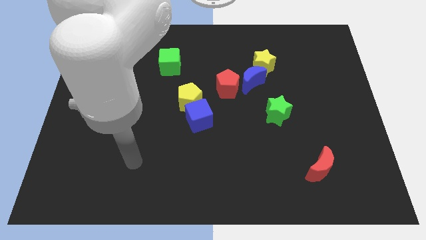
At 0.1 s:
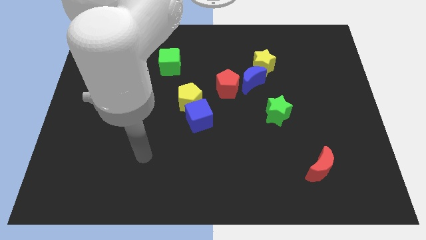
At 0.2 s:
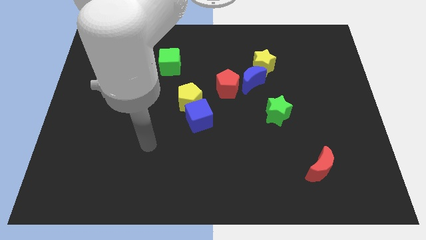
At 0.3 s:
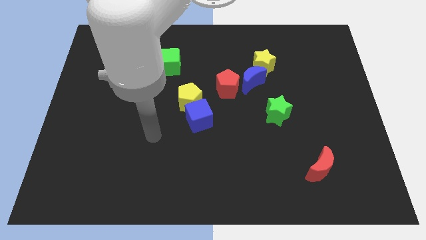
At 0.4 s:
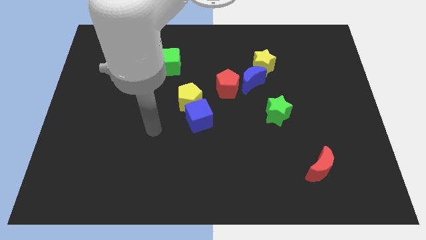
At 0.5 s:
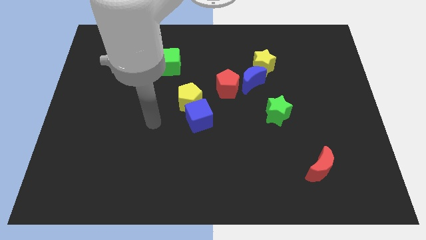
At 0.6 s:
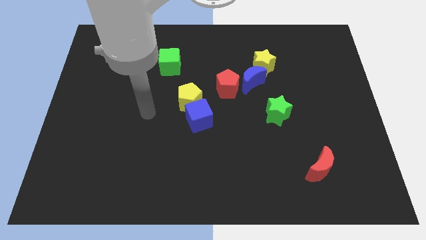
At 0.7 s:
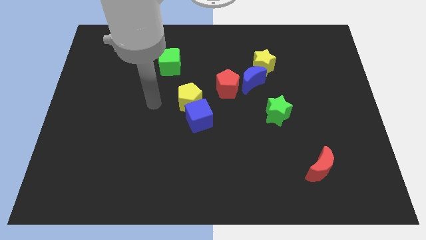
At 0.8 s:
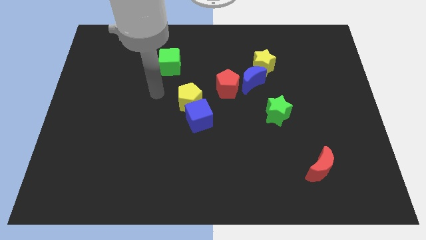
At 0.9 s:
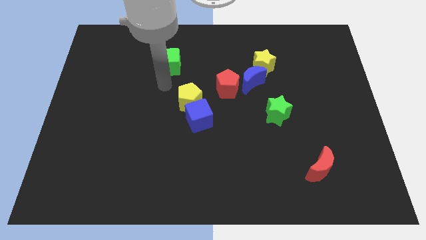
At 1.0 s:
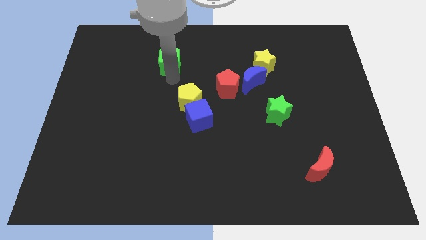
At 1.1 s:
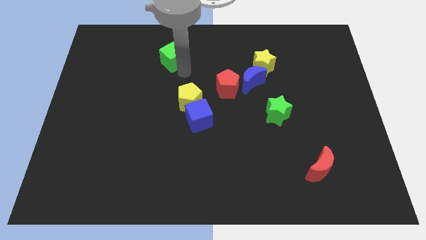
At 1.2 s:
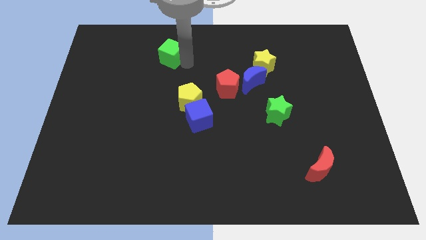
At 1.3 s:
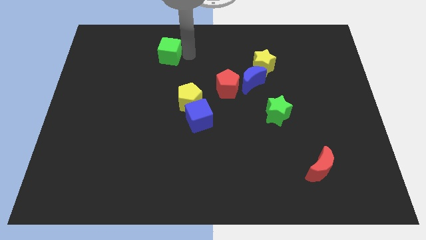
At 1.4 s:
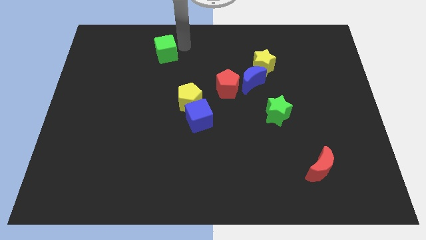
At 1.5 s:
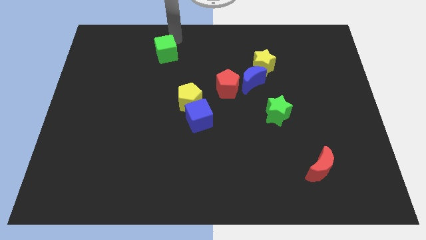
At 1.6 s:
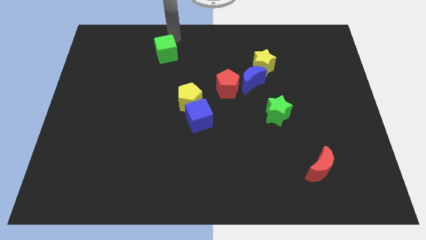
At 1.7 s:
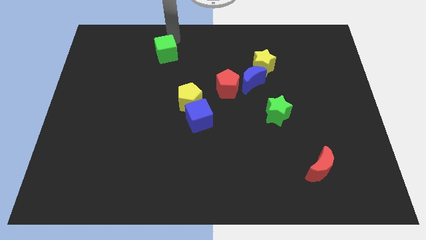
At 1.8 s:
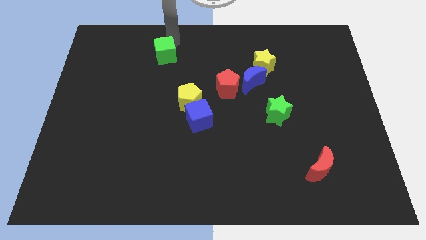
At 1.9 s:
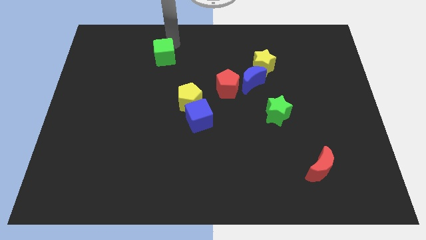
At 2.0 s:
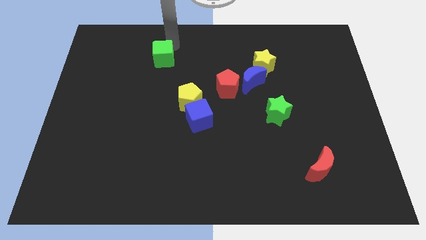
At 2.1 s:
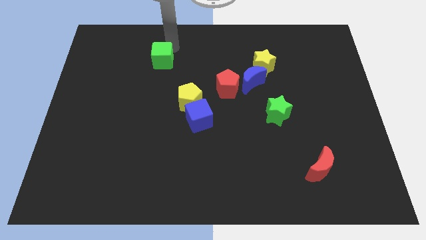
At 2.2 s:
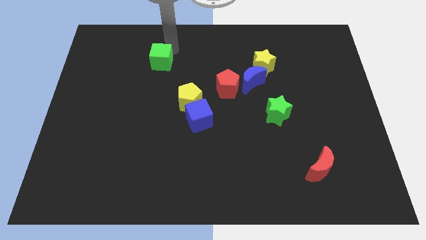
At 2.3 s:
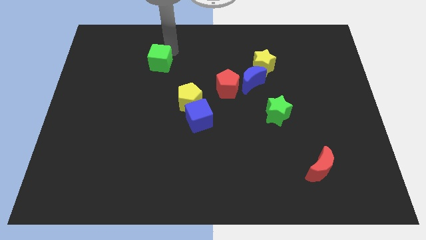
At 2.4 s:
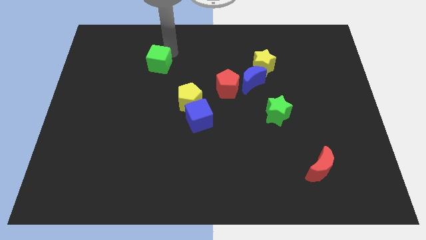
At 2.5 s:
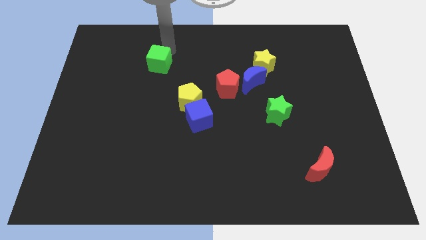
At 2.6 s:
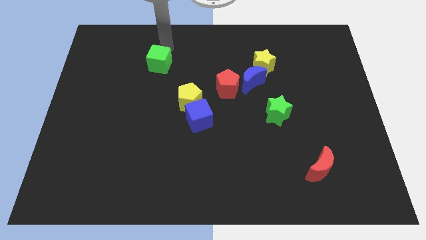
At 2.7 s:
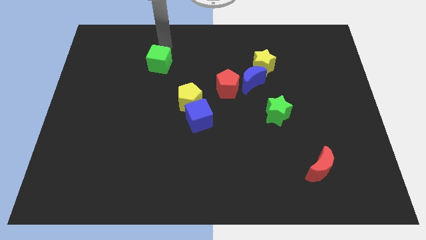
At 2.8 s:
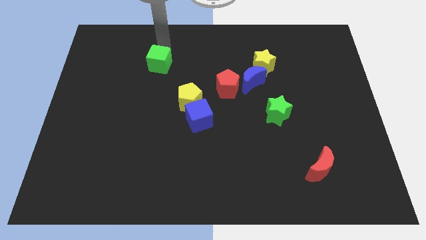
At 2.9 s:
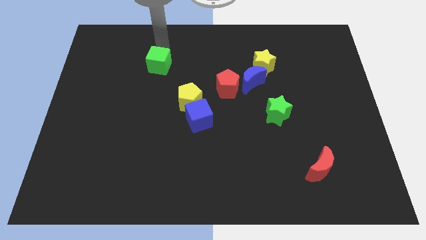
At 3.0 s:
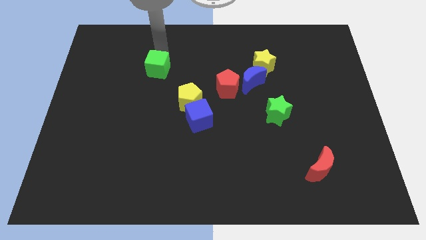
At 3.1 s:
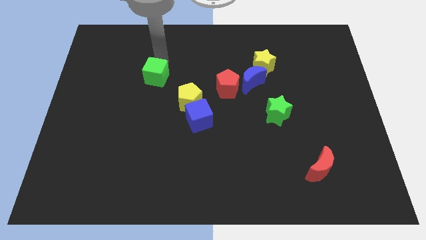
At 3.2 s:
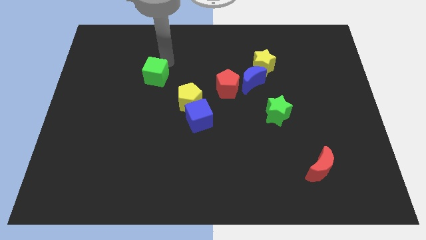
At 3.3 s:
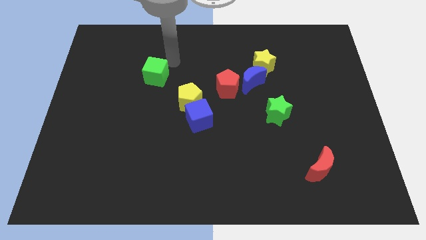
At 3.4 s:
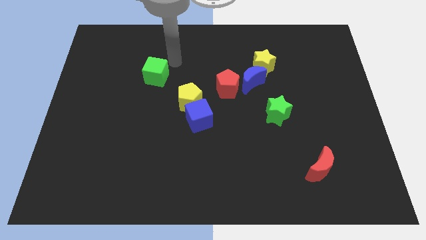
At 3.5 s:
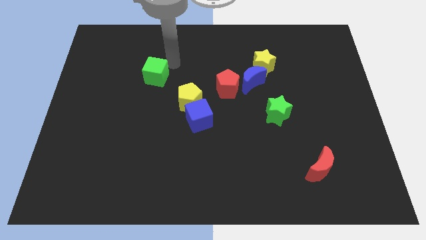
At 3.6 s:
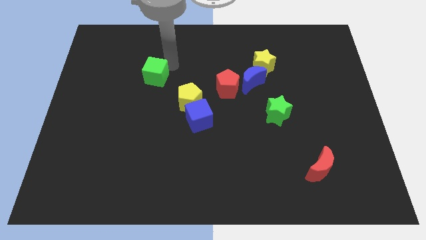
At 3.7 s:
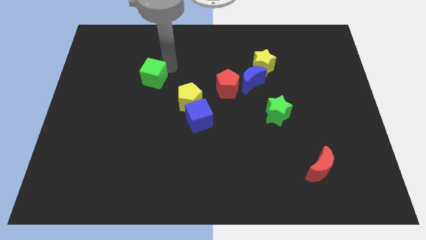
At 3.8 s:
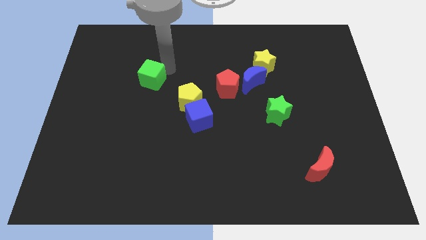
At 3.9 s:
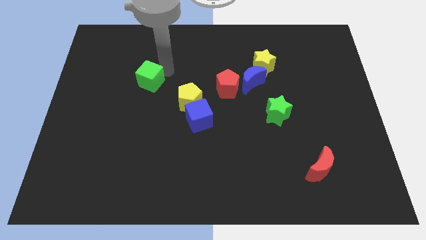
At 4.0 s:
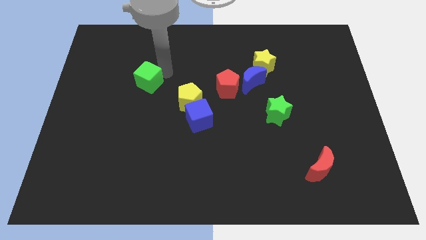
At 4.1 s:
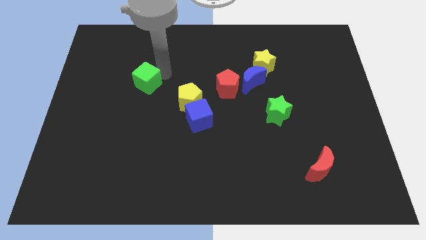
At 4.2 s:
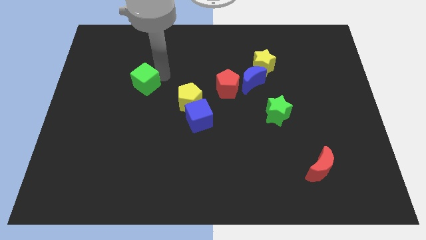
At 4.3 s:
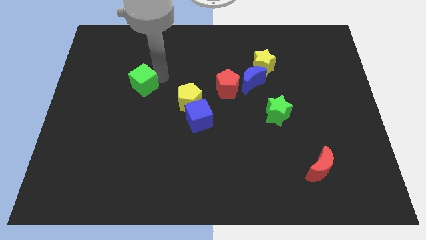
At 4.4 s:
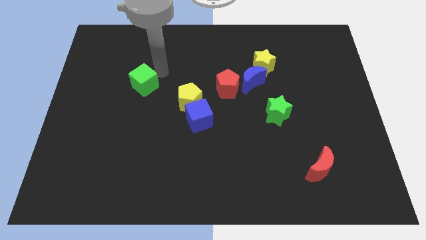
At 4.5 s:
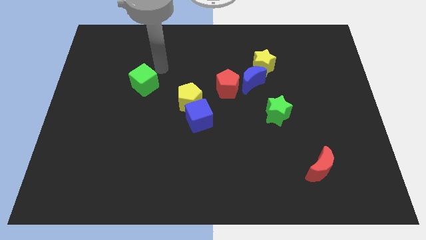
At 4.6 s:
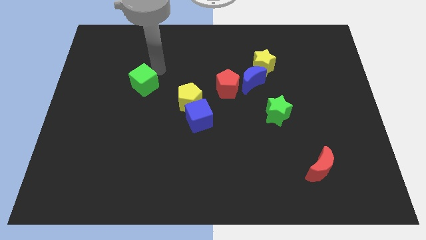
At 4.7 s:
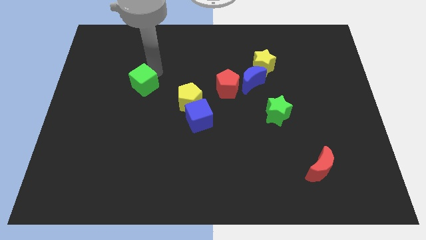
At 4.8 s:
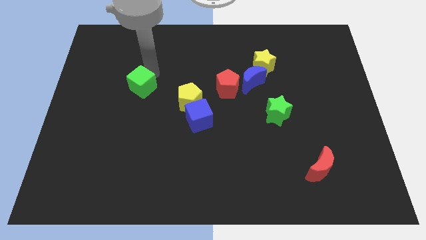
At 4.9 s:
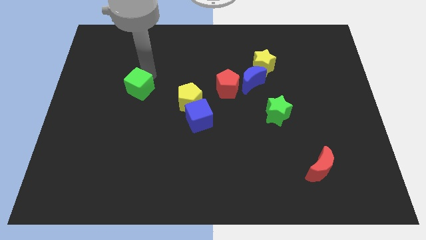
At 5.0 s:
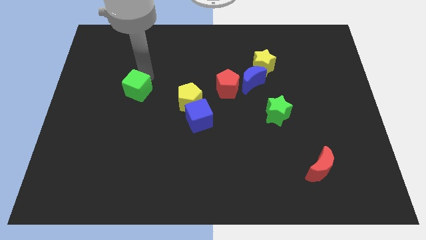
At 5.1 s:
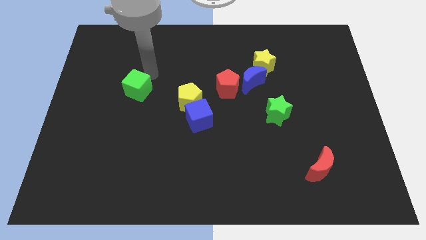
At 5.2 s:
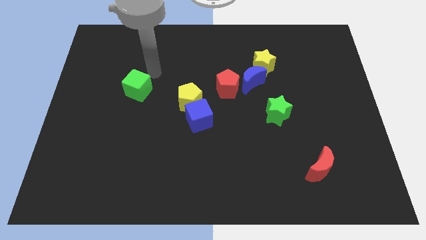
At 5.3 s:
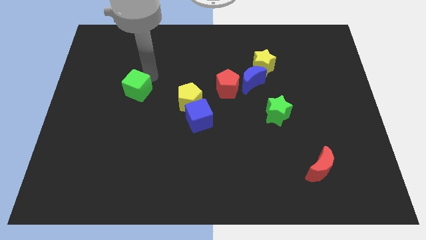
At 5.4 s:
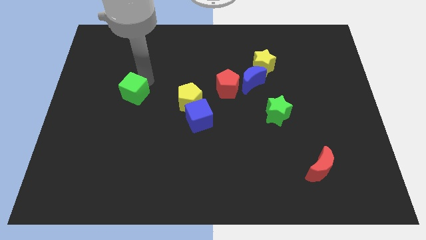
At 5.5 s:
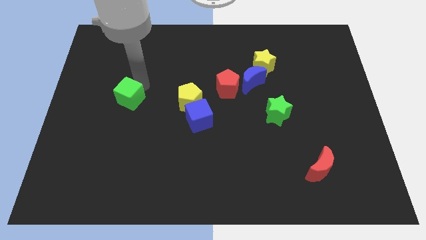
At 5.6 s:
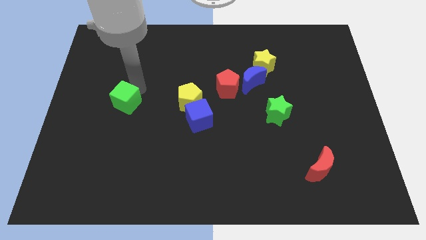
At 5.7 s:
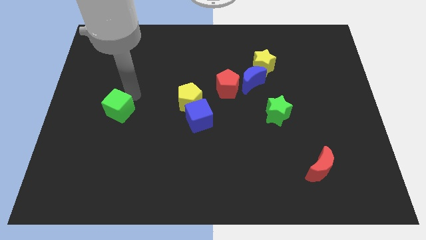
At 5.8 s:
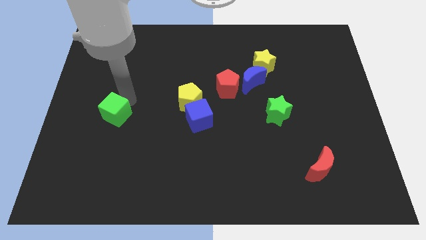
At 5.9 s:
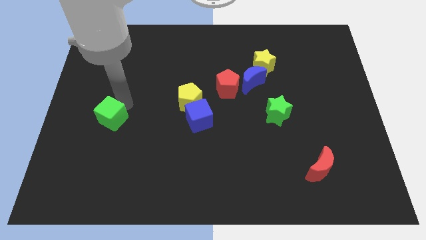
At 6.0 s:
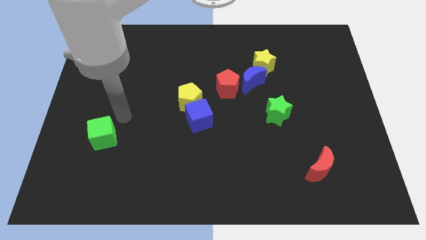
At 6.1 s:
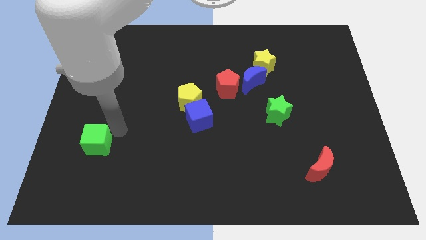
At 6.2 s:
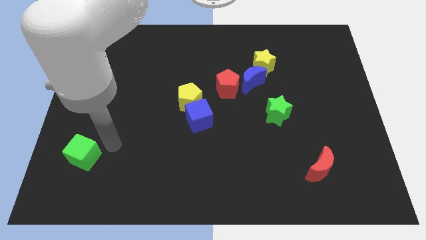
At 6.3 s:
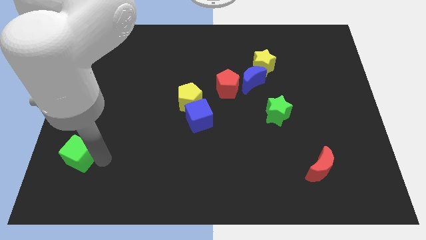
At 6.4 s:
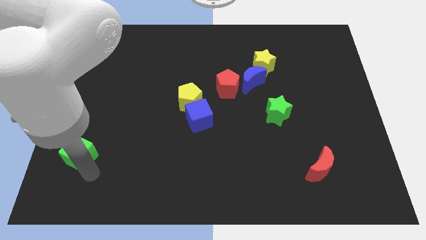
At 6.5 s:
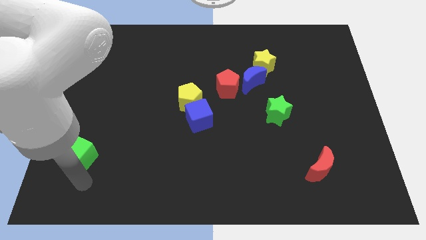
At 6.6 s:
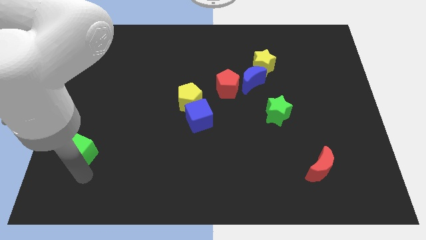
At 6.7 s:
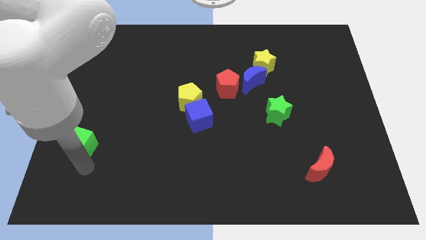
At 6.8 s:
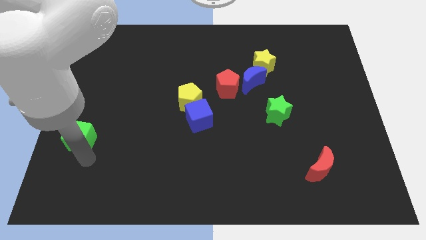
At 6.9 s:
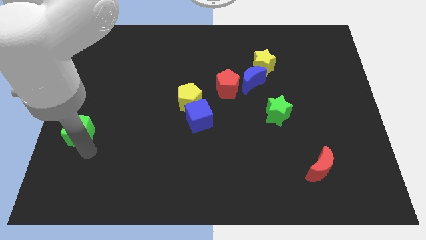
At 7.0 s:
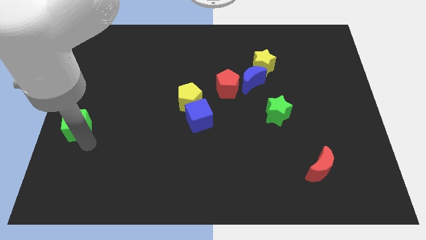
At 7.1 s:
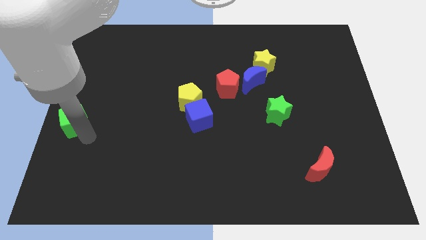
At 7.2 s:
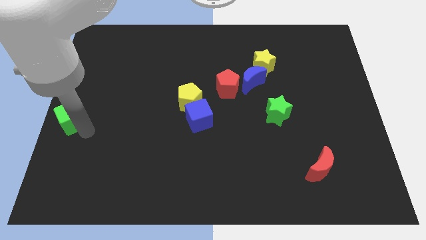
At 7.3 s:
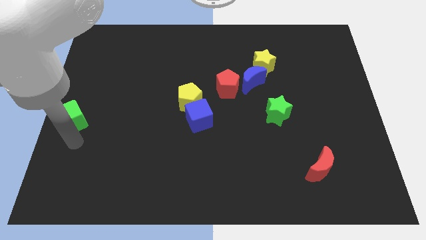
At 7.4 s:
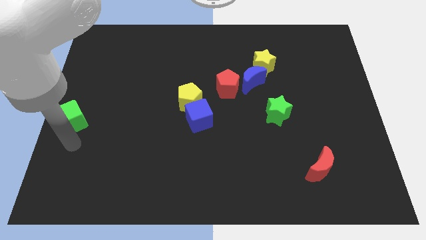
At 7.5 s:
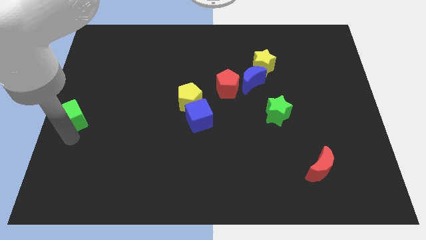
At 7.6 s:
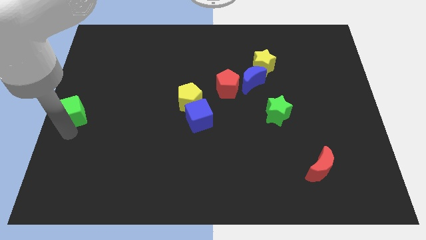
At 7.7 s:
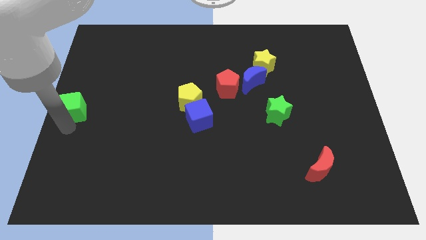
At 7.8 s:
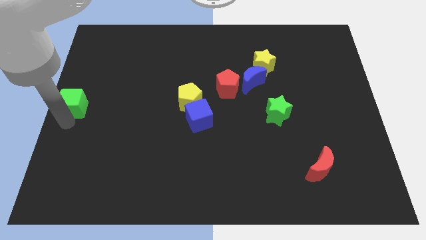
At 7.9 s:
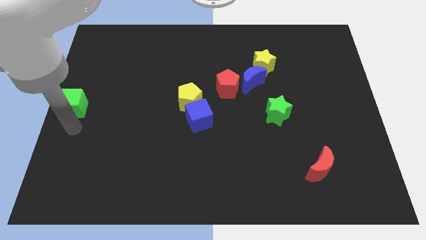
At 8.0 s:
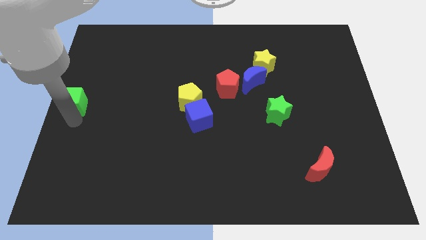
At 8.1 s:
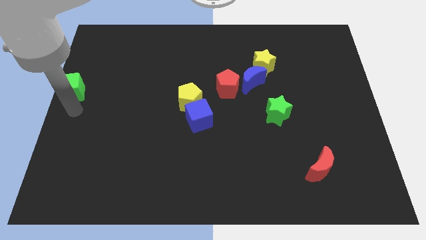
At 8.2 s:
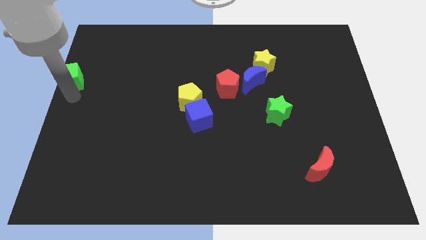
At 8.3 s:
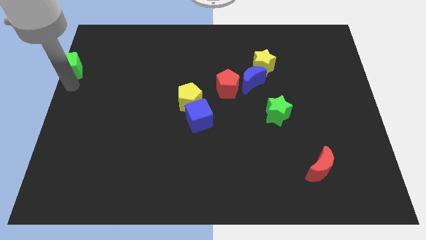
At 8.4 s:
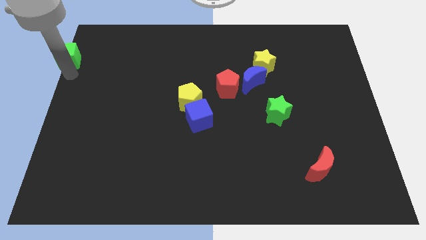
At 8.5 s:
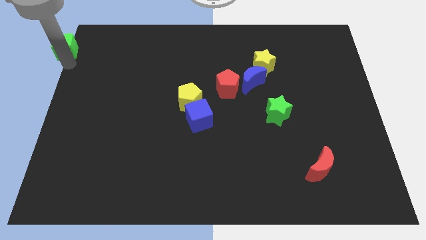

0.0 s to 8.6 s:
put the green cube to the top left
